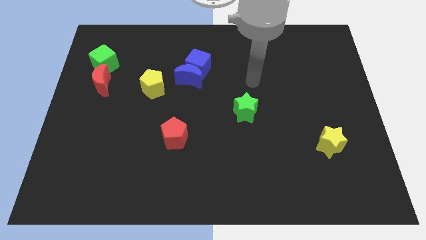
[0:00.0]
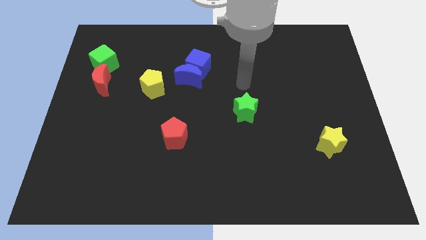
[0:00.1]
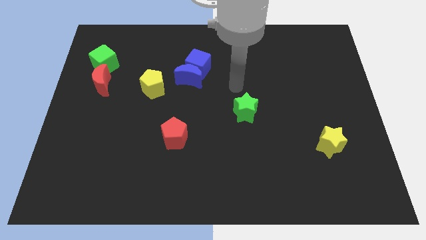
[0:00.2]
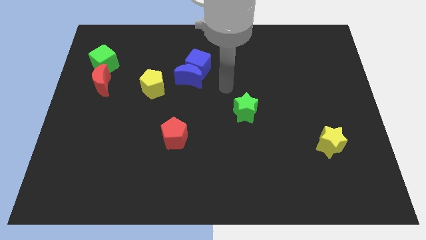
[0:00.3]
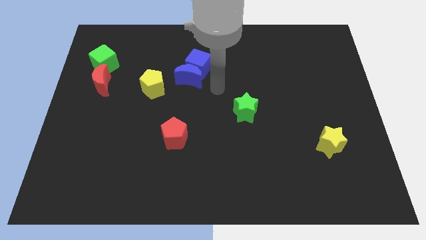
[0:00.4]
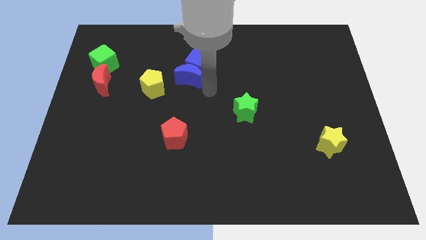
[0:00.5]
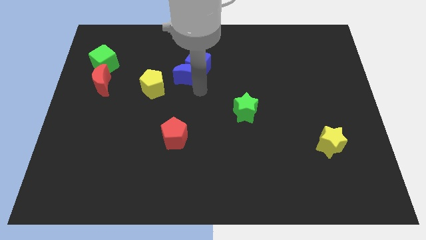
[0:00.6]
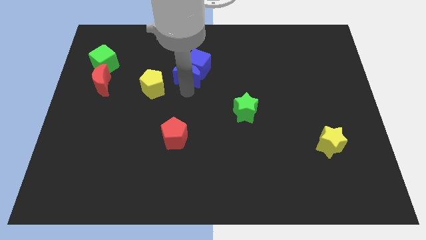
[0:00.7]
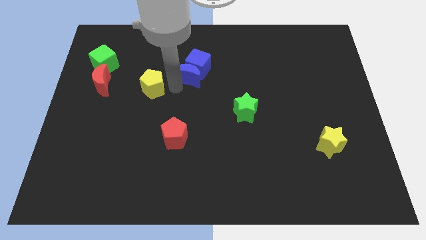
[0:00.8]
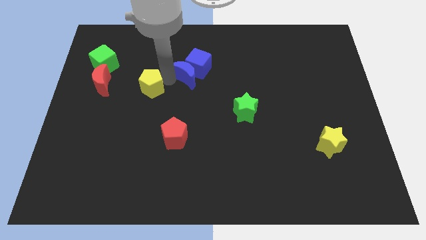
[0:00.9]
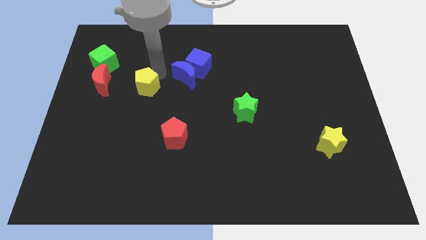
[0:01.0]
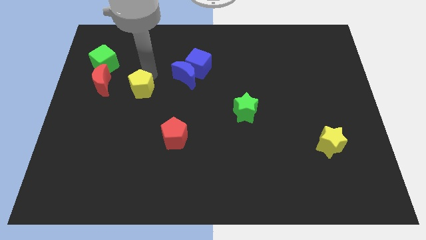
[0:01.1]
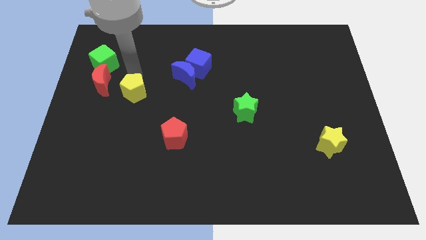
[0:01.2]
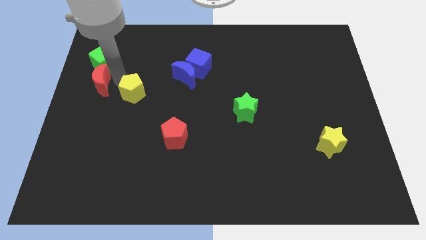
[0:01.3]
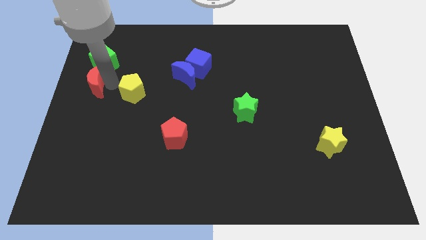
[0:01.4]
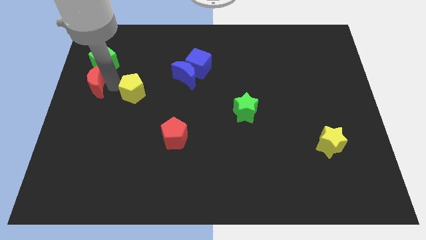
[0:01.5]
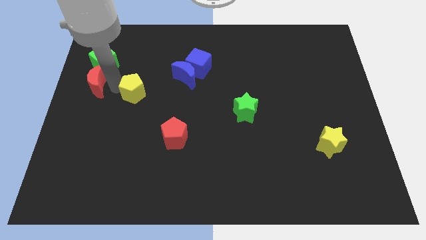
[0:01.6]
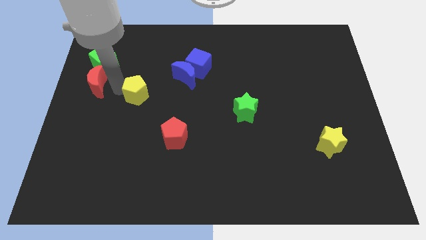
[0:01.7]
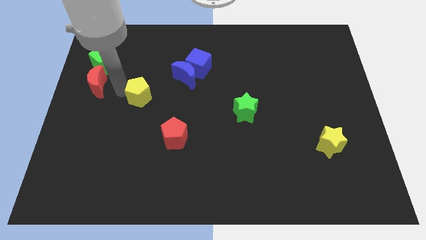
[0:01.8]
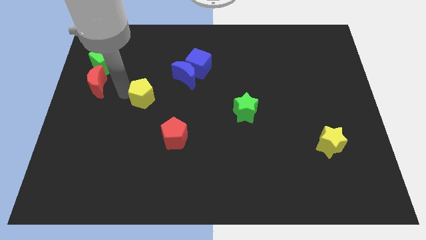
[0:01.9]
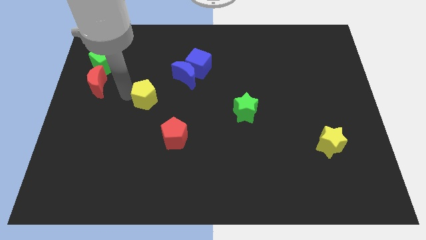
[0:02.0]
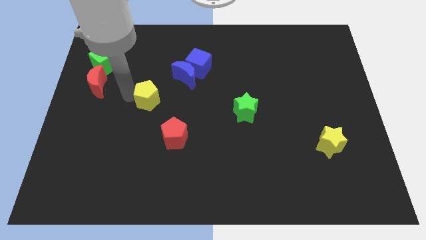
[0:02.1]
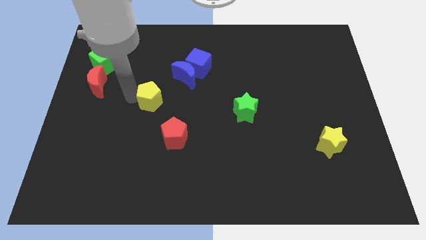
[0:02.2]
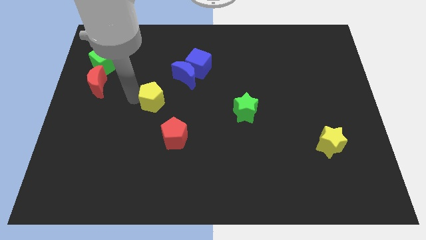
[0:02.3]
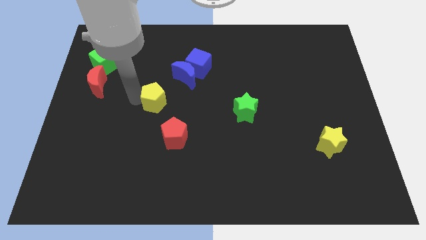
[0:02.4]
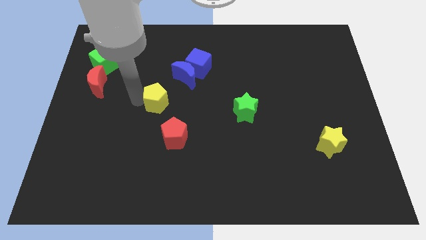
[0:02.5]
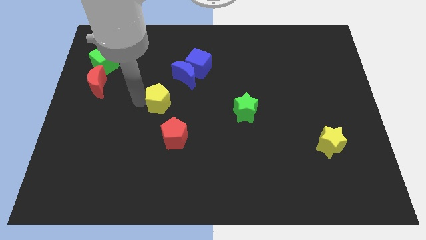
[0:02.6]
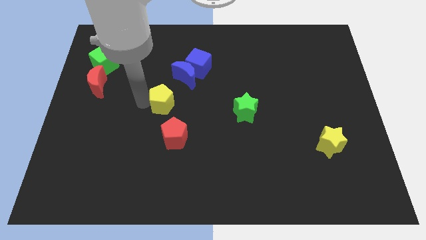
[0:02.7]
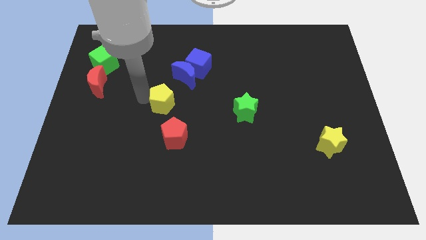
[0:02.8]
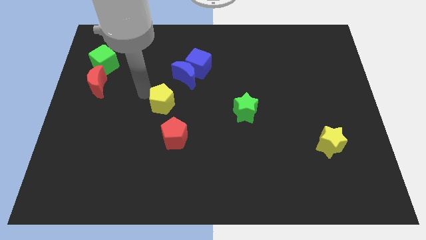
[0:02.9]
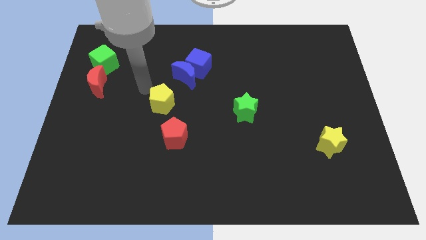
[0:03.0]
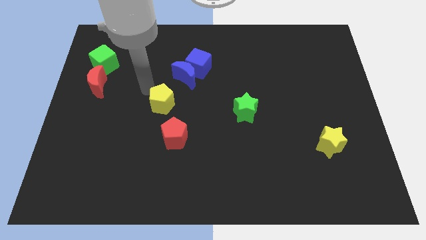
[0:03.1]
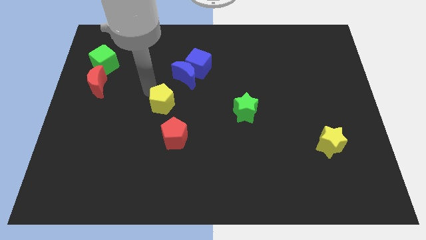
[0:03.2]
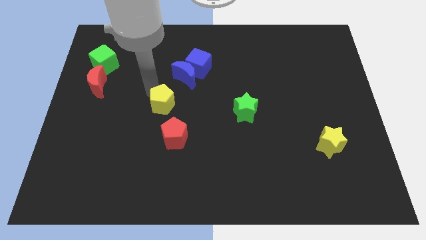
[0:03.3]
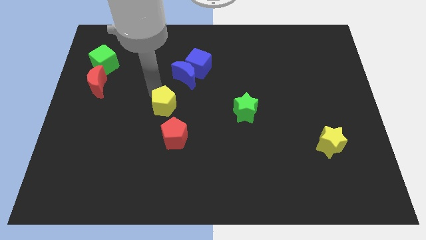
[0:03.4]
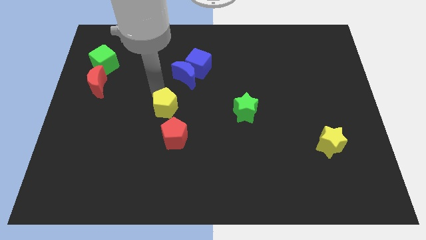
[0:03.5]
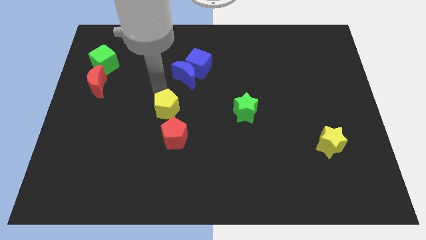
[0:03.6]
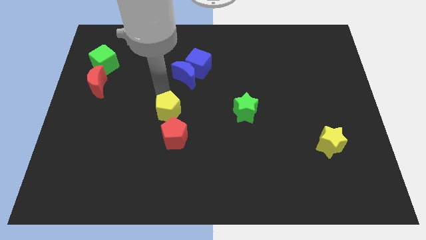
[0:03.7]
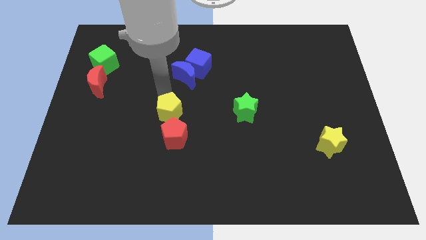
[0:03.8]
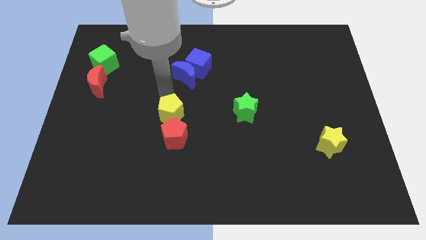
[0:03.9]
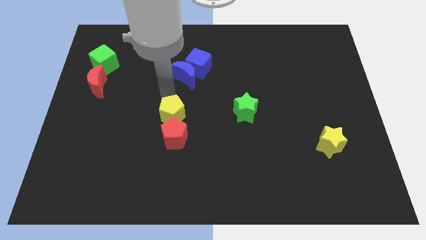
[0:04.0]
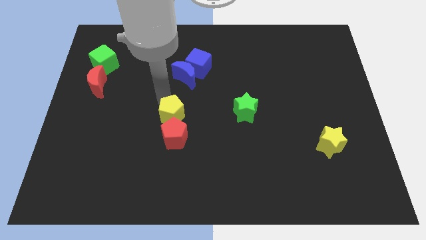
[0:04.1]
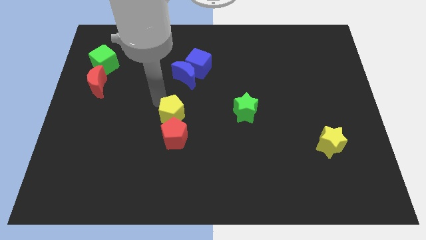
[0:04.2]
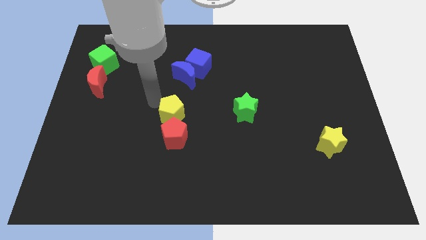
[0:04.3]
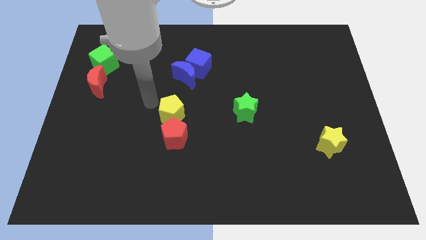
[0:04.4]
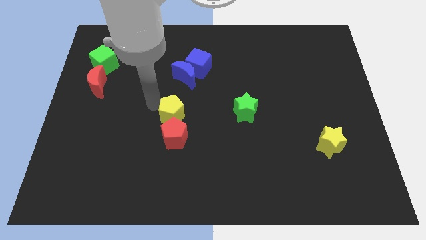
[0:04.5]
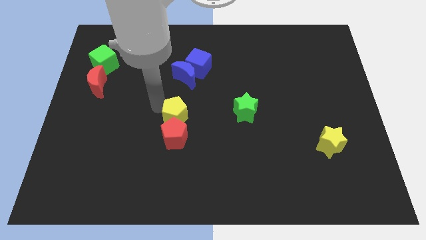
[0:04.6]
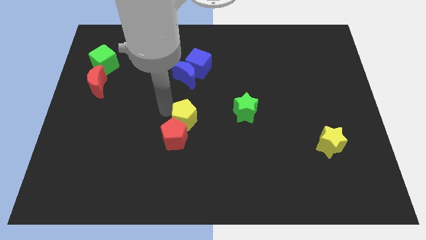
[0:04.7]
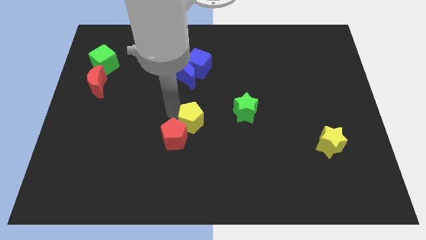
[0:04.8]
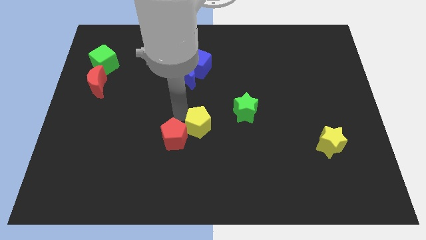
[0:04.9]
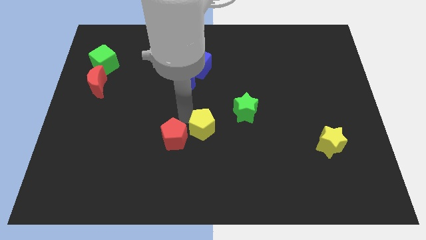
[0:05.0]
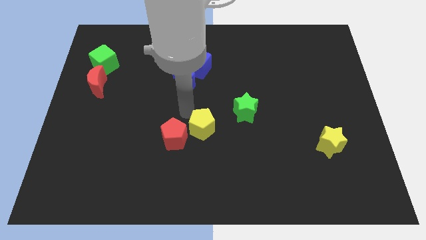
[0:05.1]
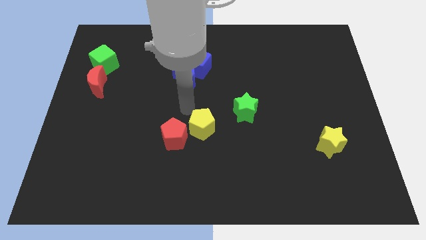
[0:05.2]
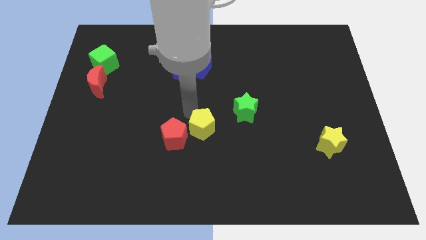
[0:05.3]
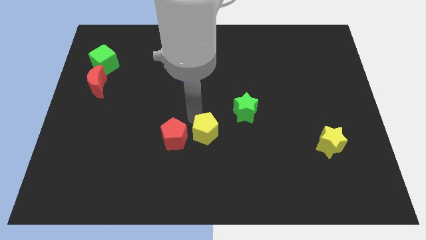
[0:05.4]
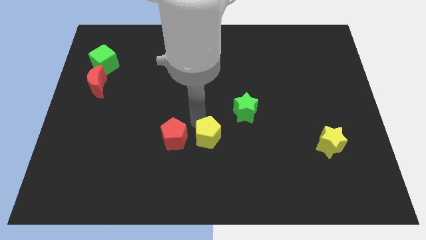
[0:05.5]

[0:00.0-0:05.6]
move the yellow pentagon diagonally down and right

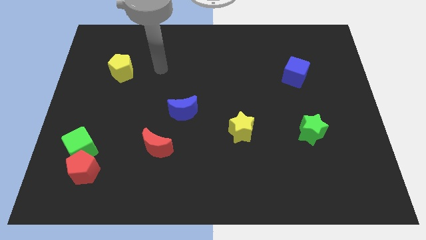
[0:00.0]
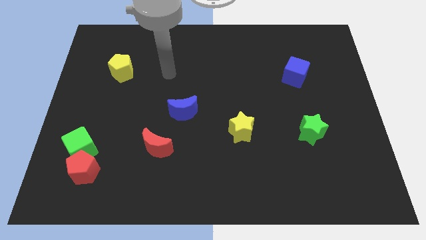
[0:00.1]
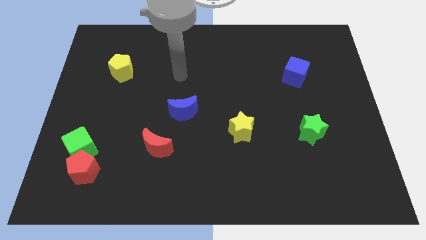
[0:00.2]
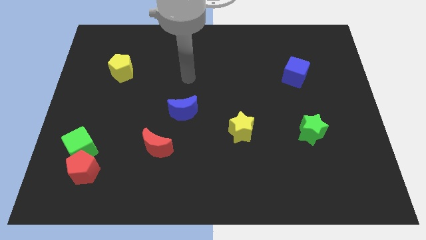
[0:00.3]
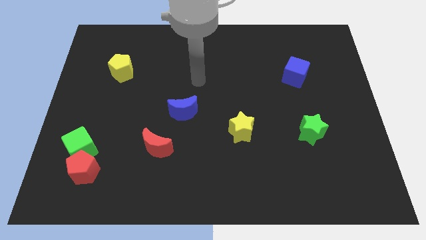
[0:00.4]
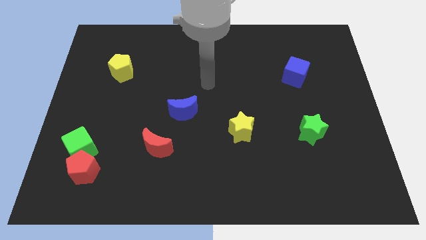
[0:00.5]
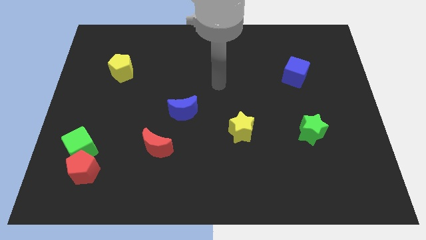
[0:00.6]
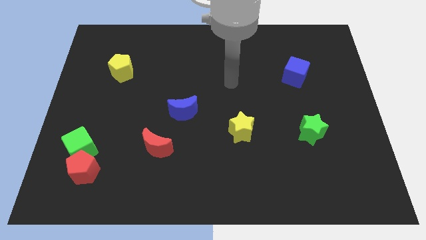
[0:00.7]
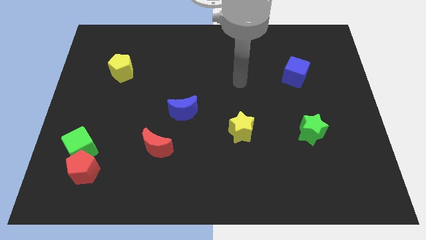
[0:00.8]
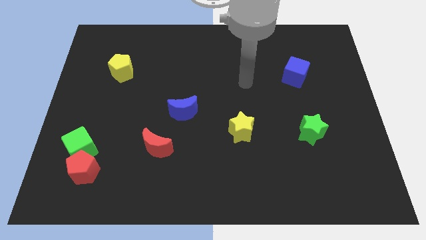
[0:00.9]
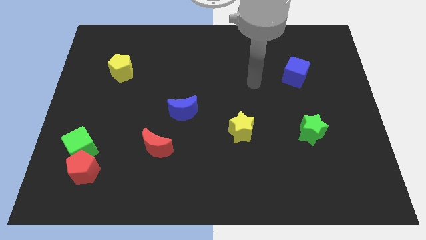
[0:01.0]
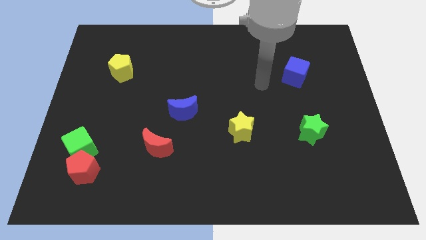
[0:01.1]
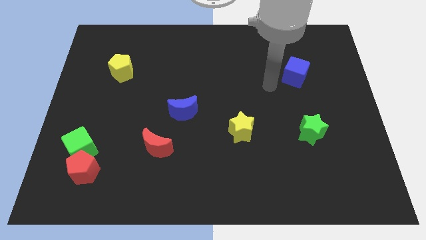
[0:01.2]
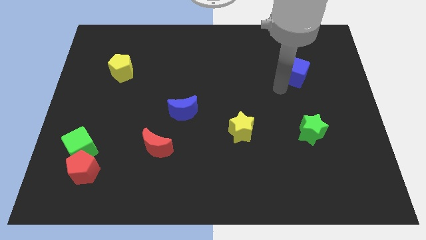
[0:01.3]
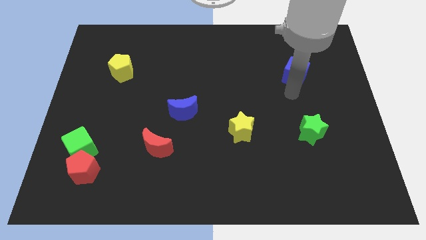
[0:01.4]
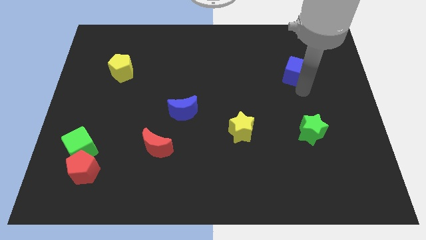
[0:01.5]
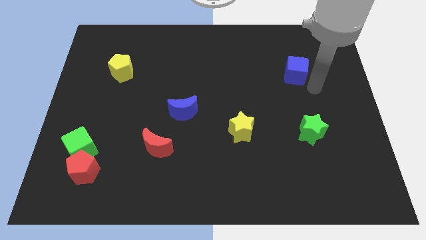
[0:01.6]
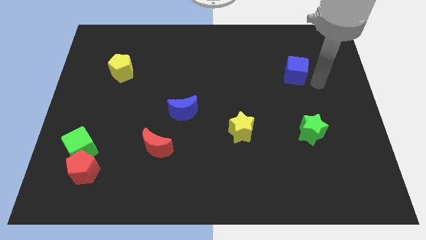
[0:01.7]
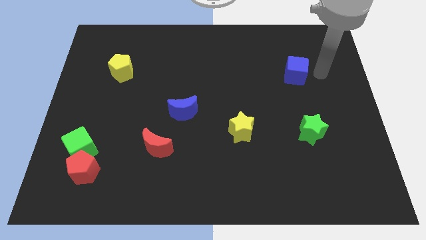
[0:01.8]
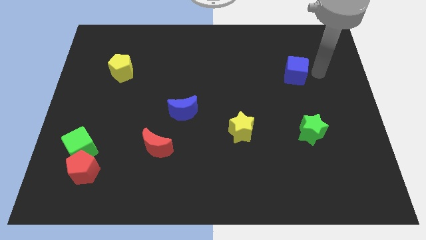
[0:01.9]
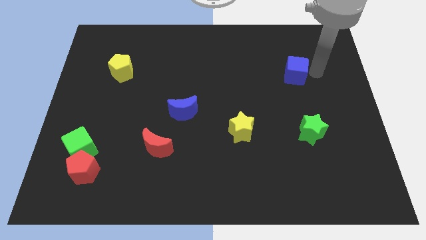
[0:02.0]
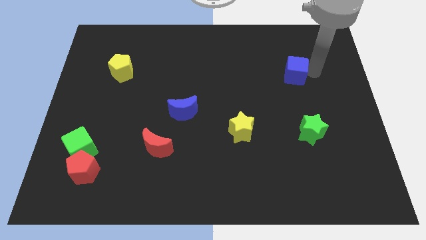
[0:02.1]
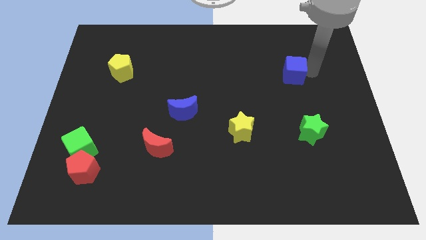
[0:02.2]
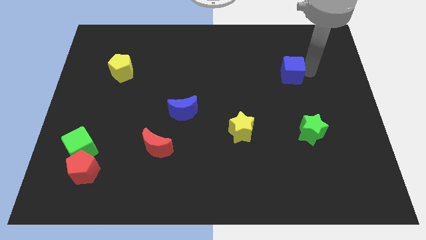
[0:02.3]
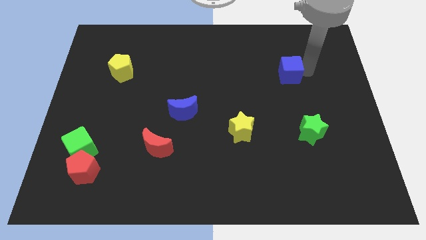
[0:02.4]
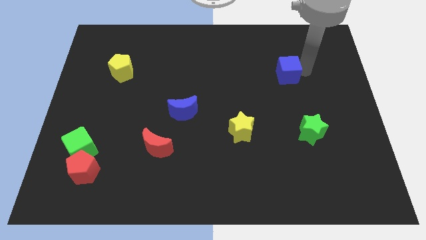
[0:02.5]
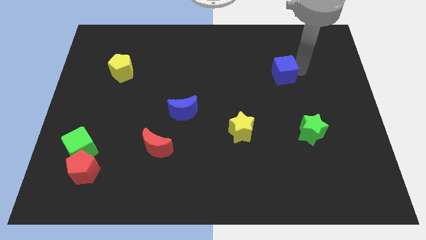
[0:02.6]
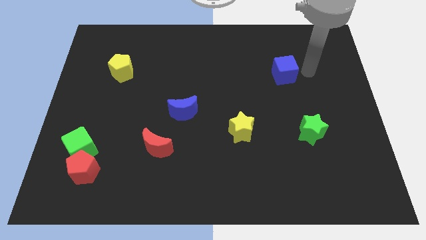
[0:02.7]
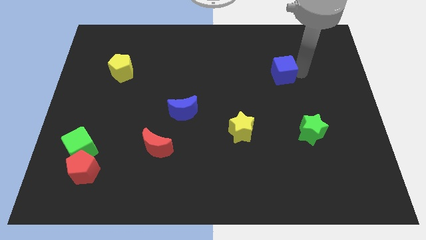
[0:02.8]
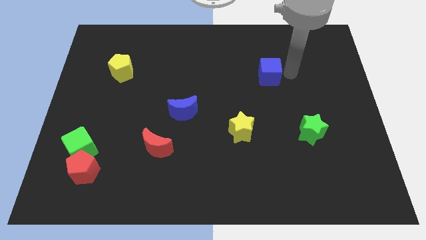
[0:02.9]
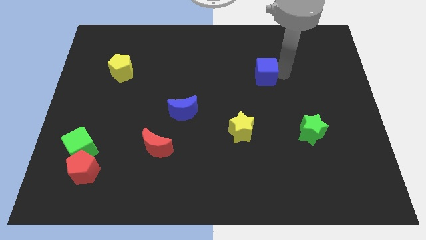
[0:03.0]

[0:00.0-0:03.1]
push the blue cube somewhat to the left
